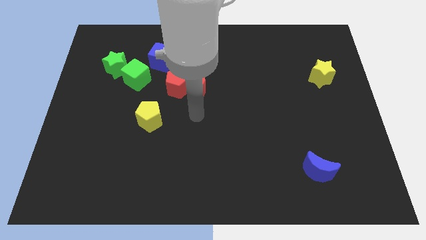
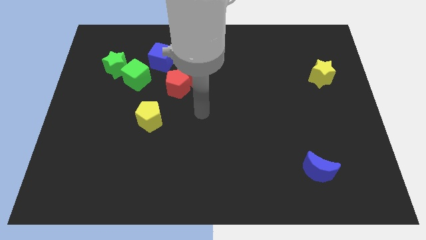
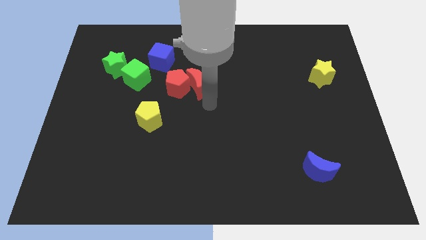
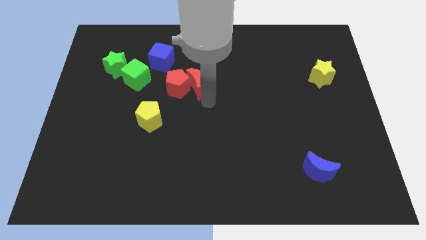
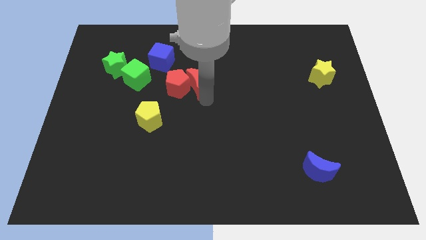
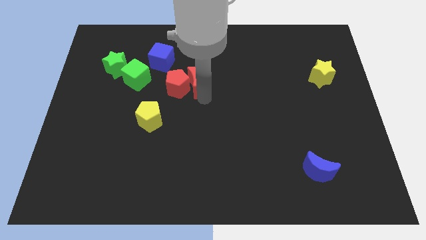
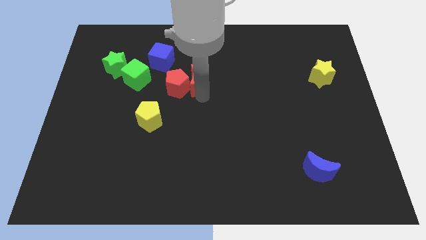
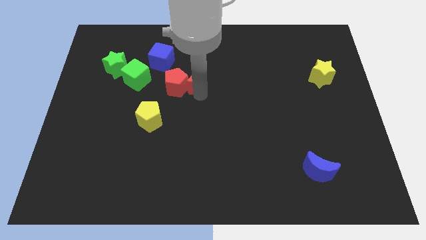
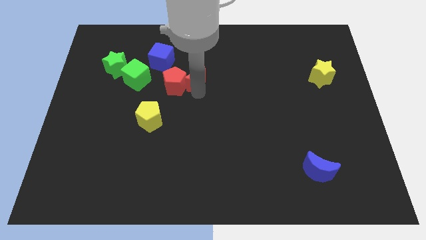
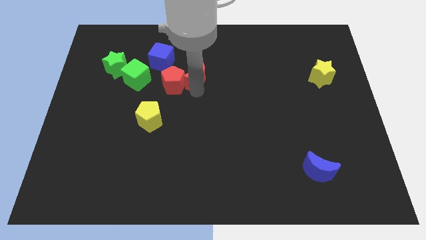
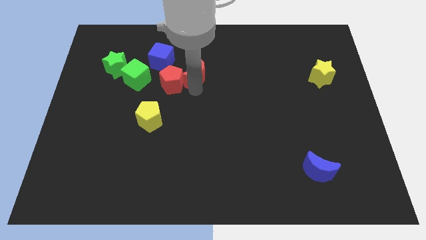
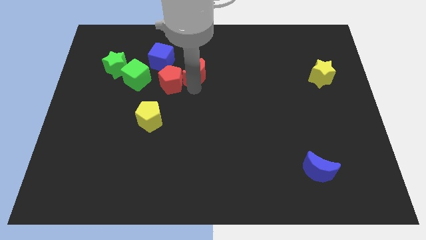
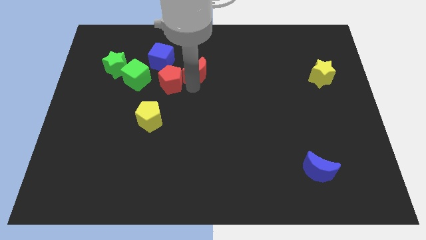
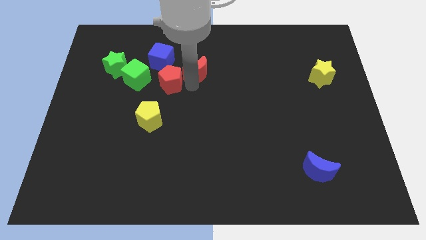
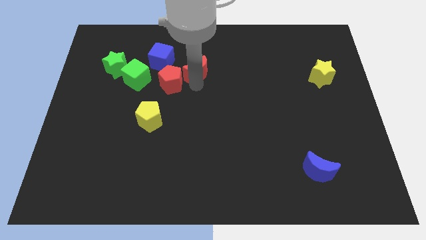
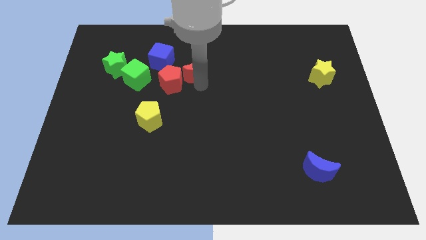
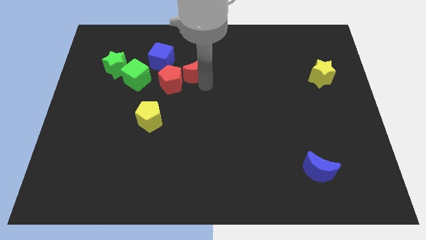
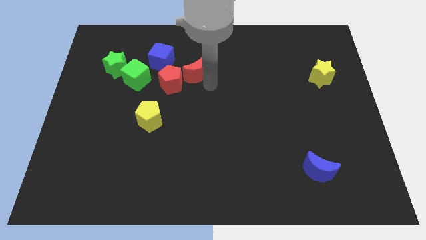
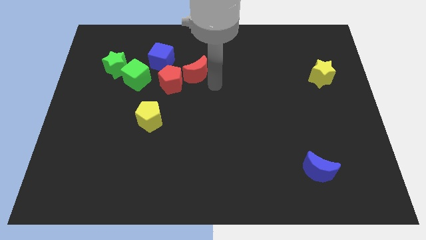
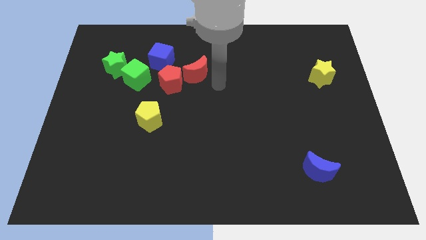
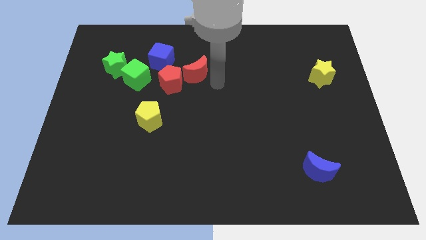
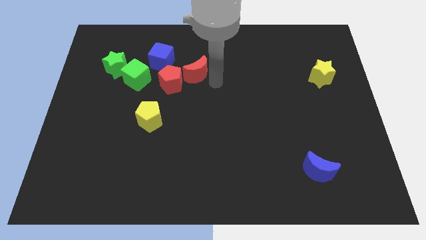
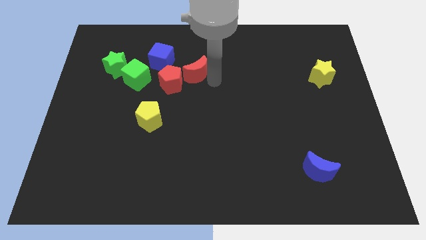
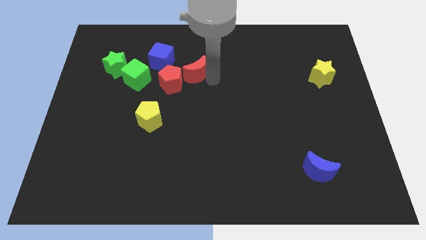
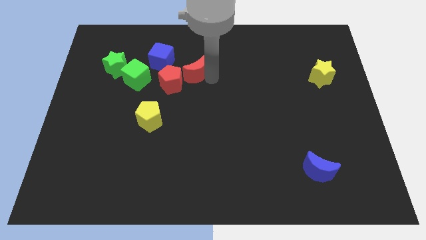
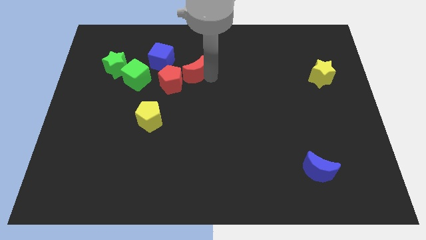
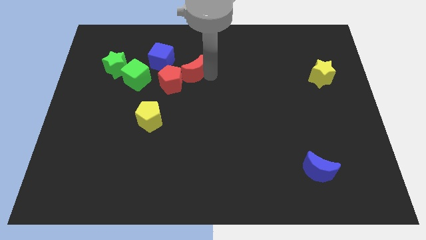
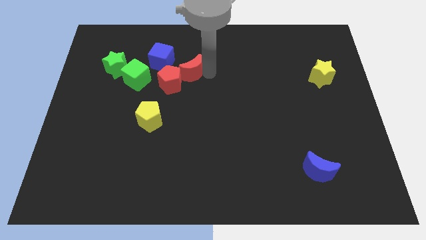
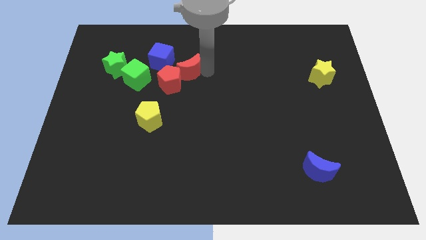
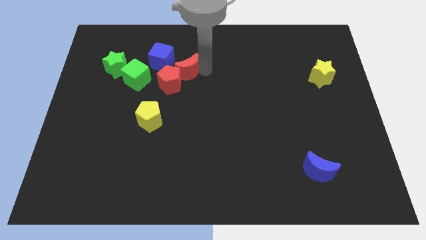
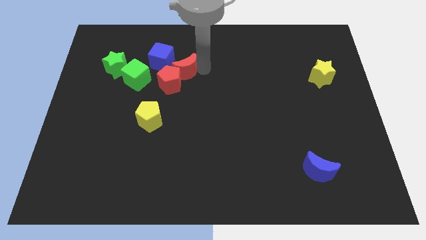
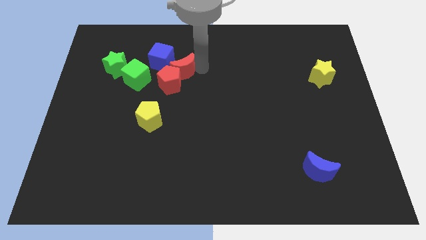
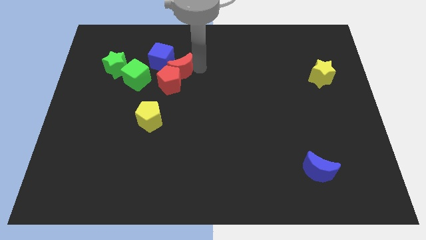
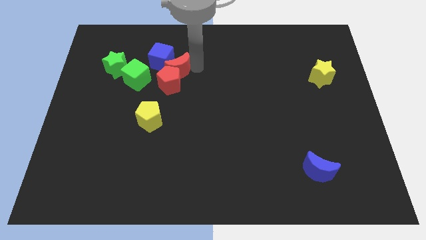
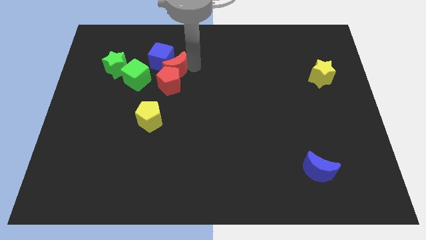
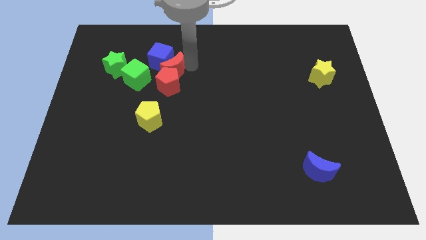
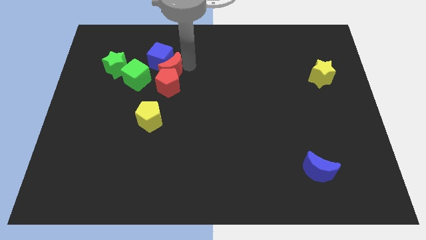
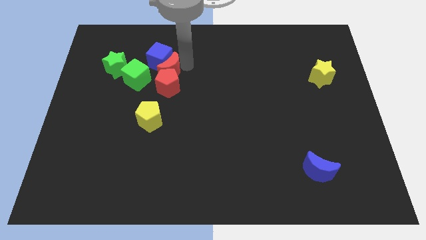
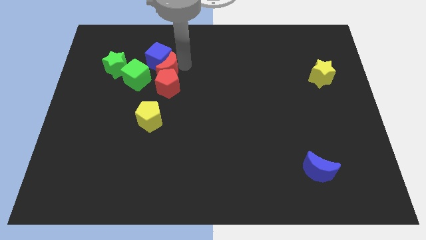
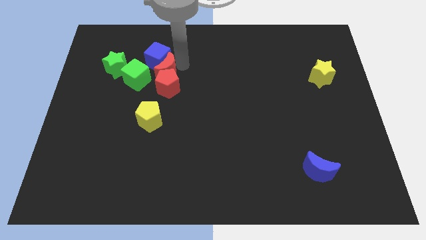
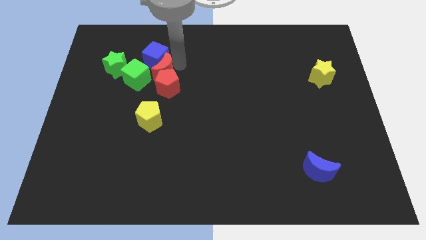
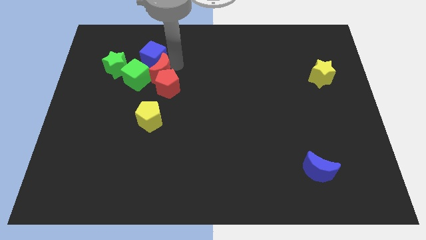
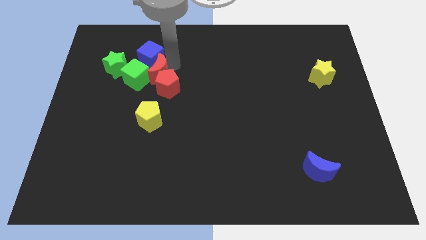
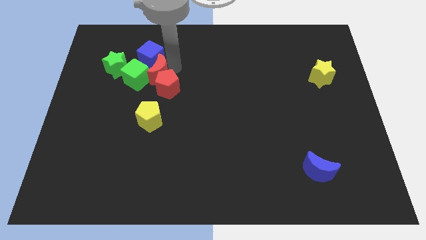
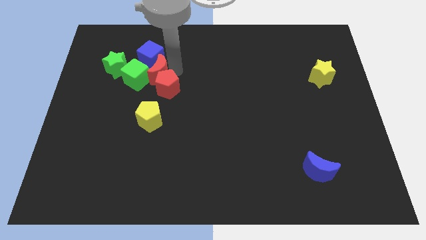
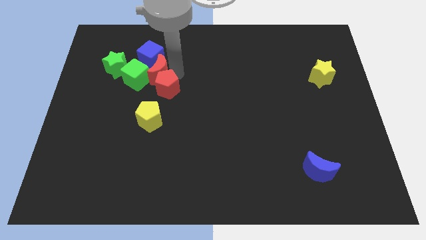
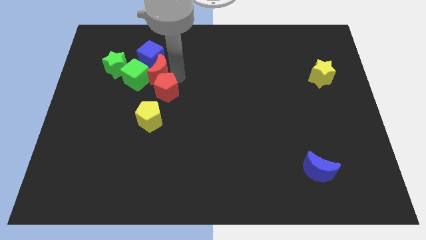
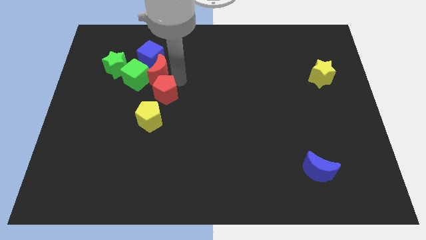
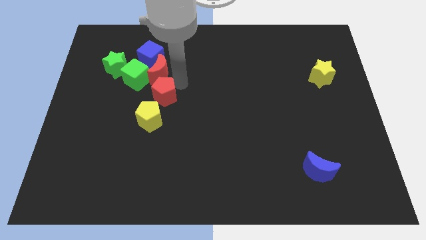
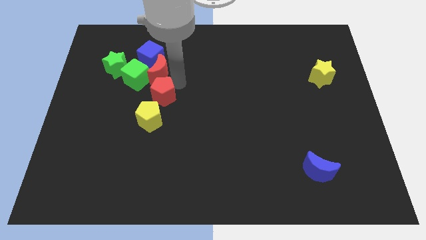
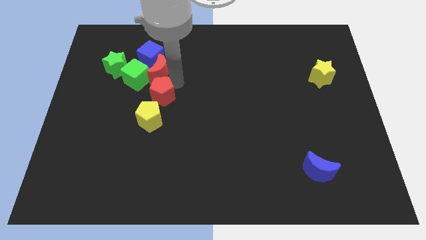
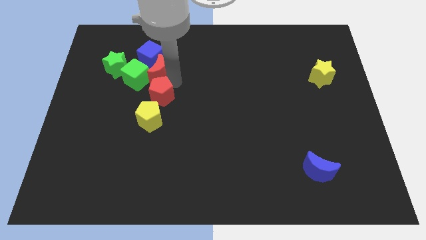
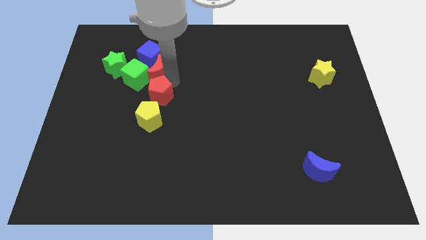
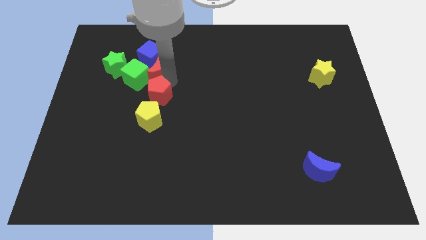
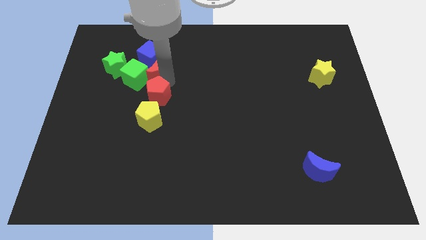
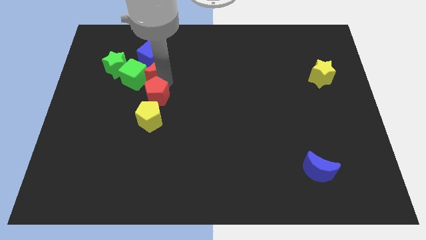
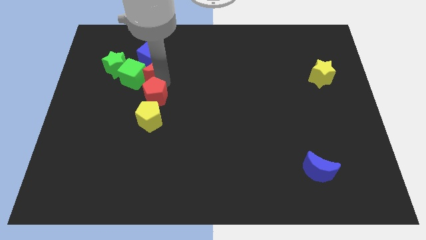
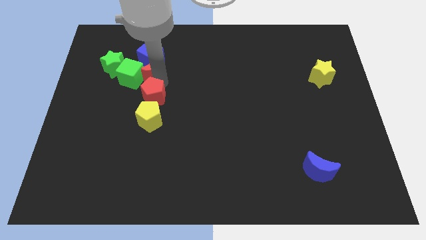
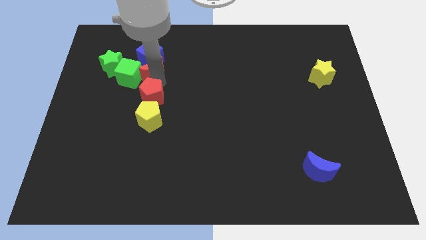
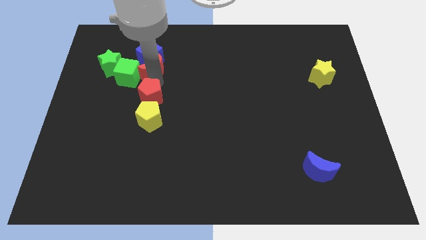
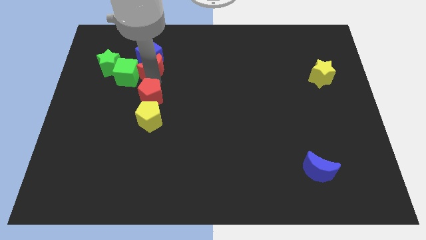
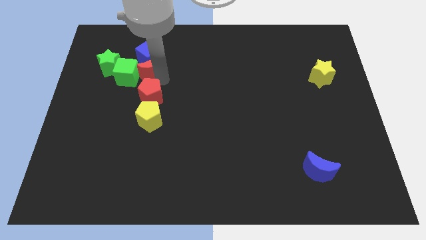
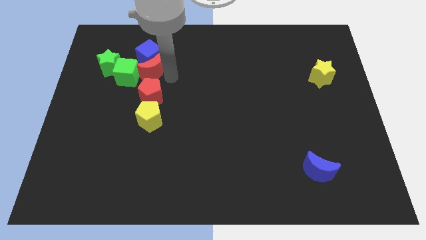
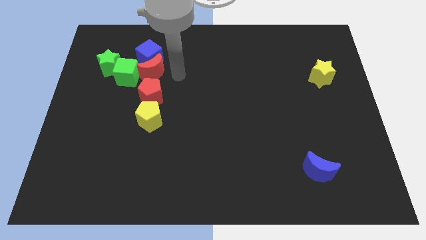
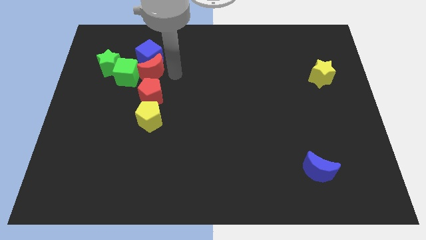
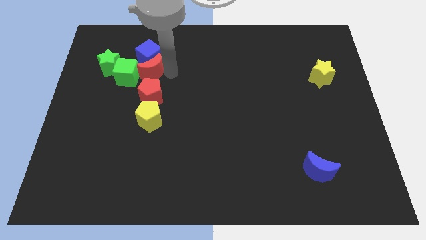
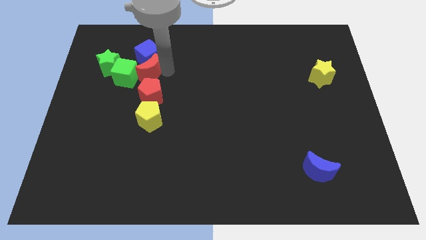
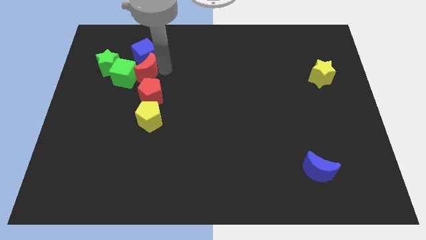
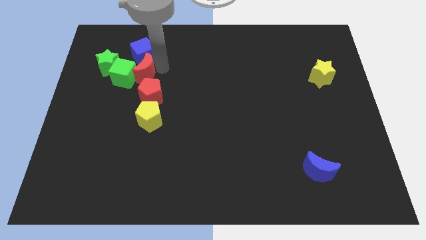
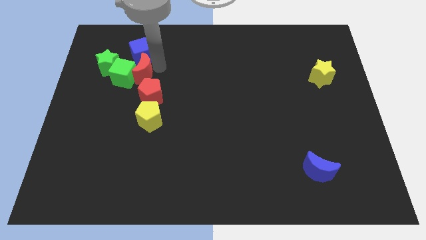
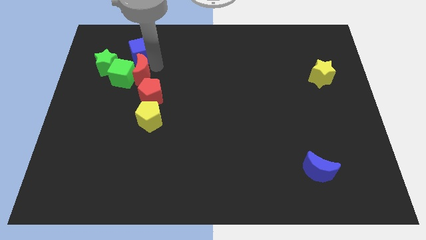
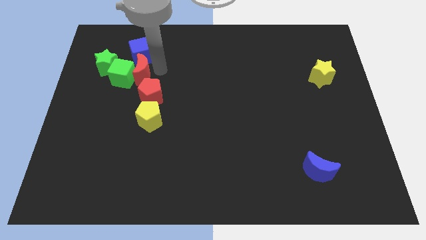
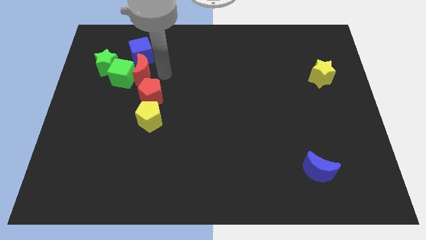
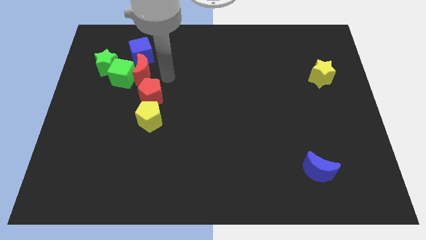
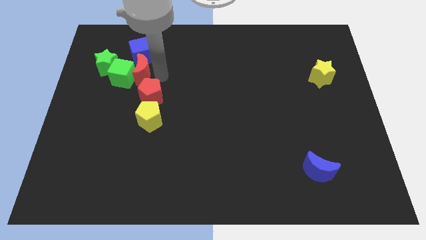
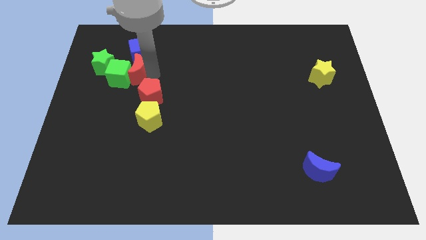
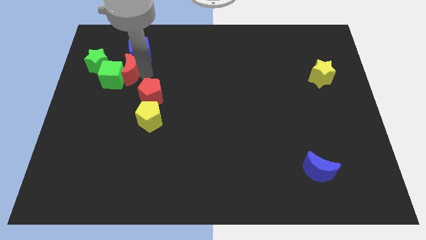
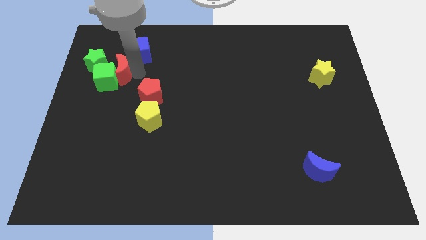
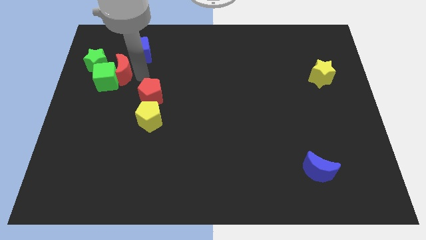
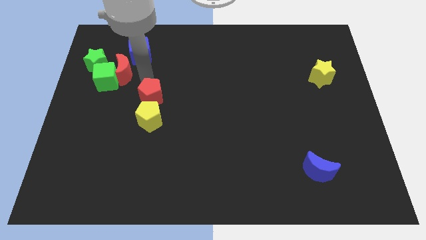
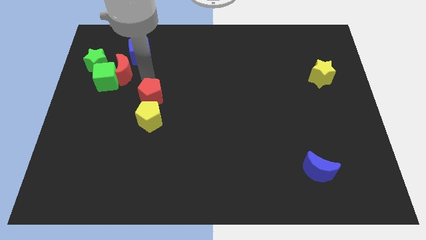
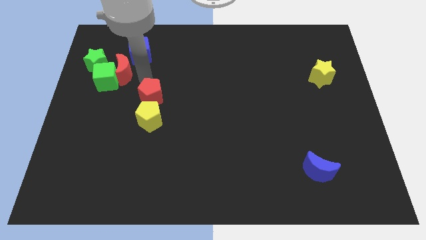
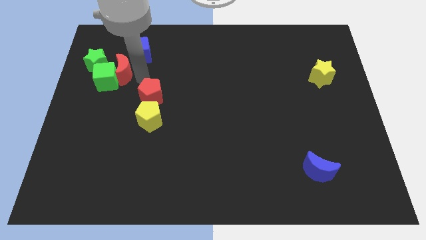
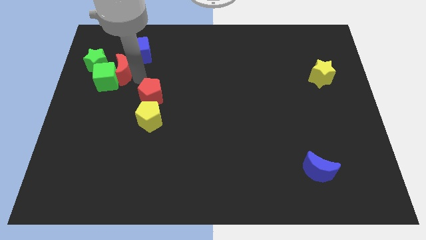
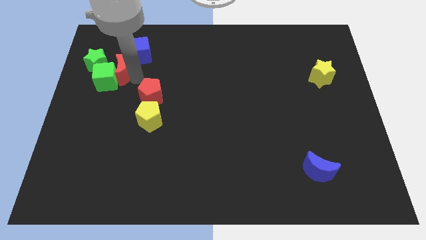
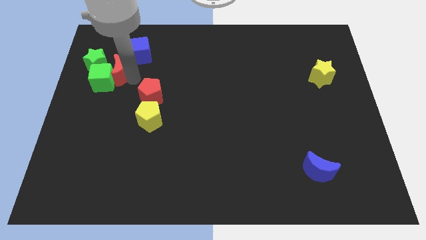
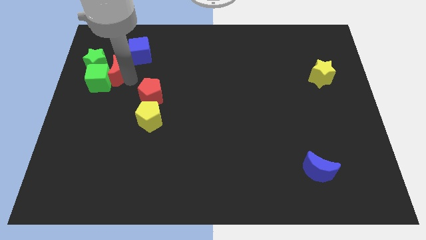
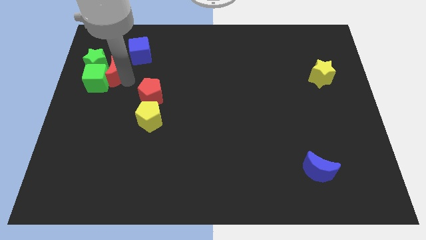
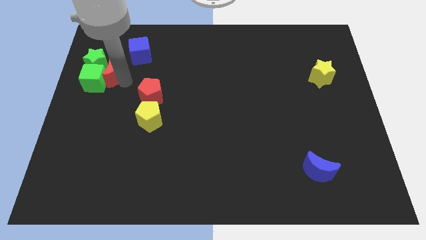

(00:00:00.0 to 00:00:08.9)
move the red moon next to the green star
